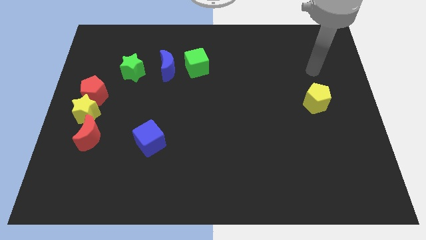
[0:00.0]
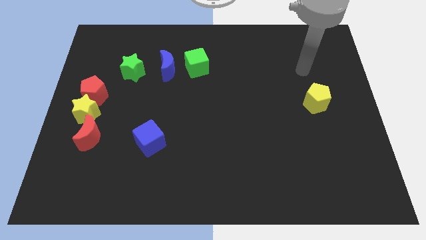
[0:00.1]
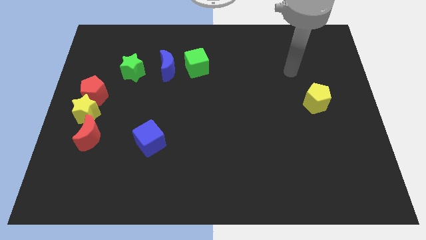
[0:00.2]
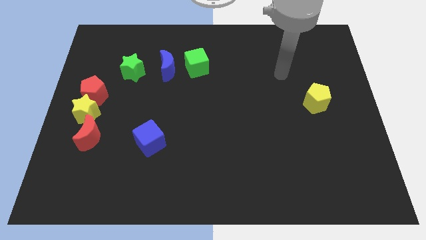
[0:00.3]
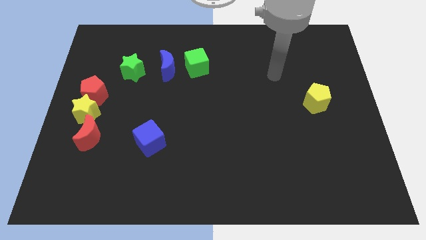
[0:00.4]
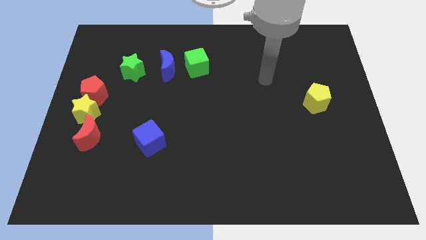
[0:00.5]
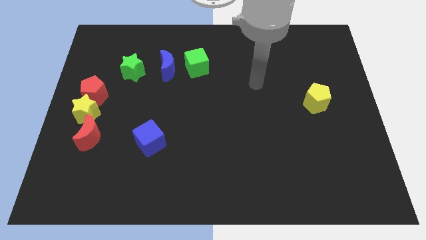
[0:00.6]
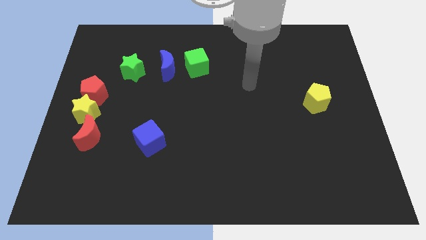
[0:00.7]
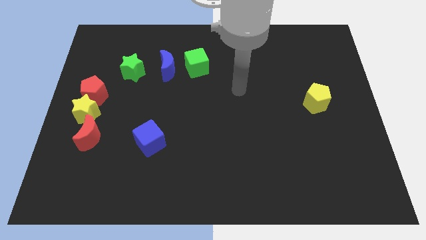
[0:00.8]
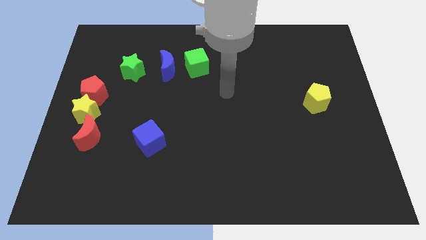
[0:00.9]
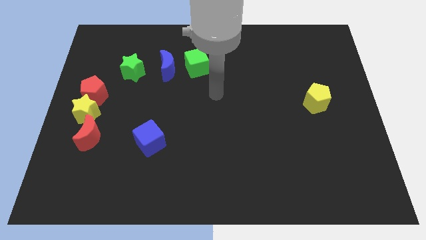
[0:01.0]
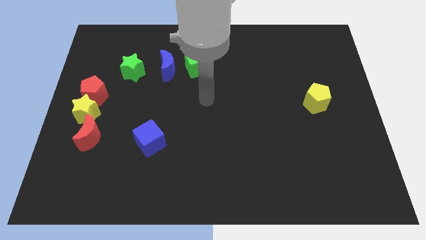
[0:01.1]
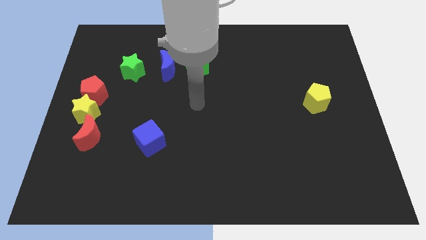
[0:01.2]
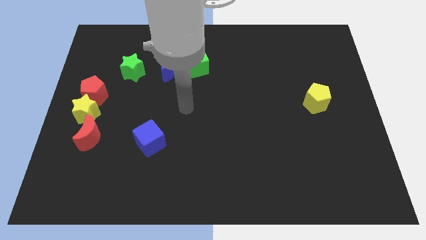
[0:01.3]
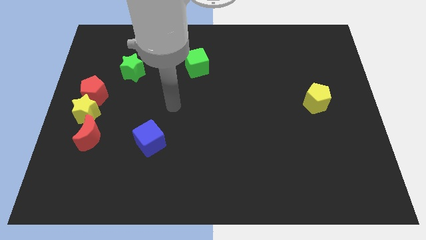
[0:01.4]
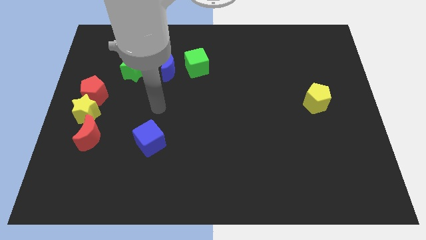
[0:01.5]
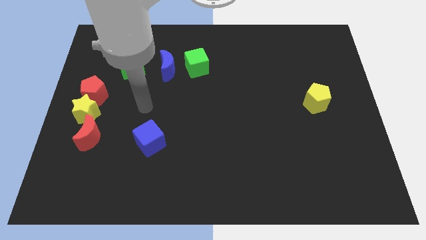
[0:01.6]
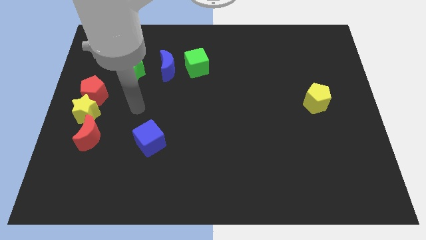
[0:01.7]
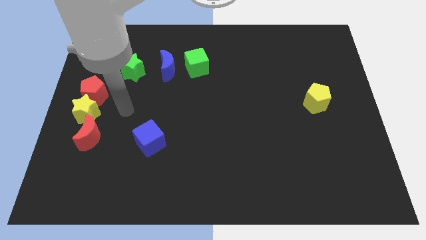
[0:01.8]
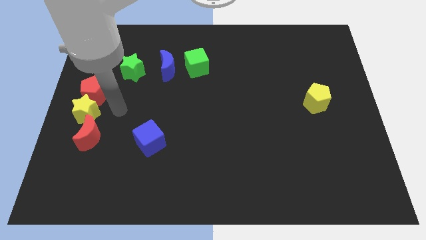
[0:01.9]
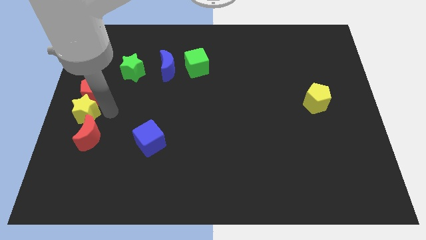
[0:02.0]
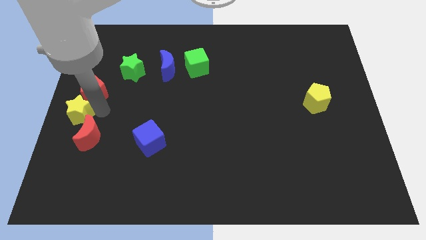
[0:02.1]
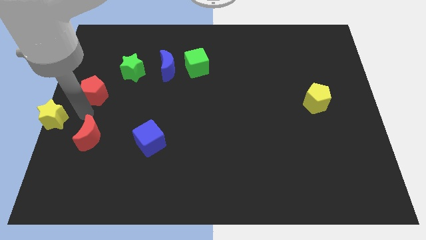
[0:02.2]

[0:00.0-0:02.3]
move the red pentagon away from the yellow star

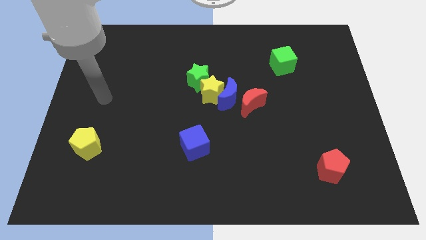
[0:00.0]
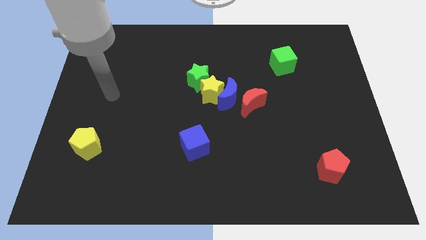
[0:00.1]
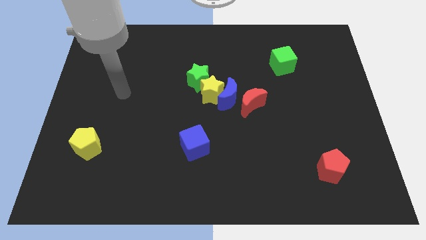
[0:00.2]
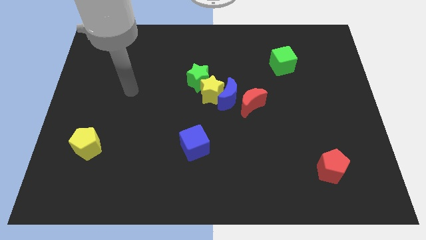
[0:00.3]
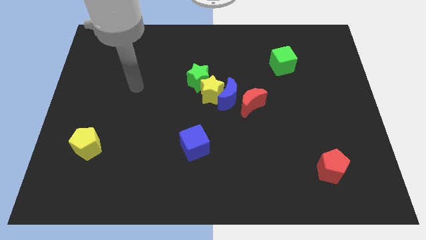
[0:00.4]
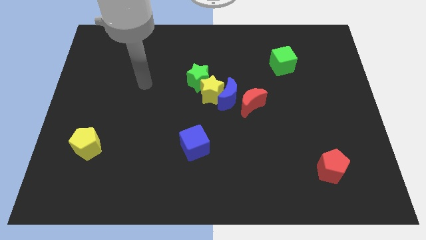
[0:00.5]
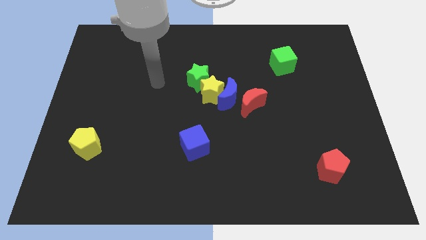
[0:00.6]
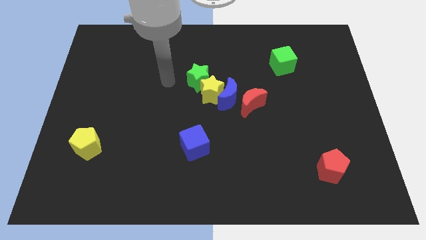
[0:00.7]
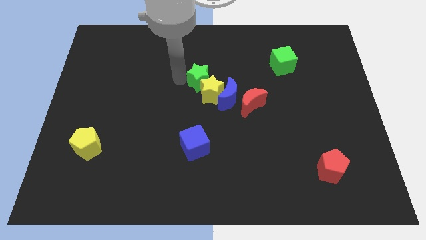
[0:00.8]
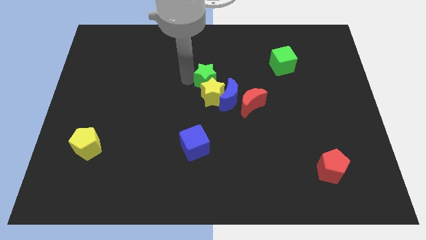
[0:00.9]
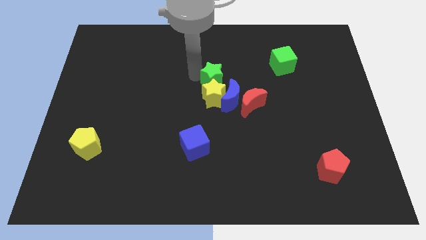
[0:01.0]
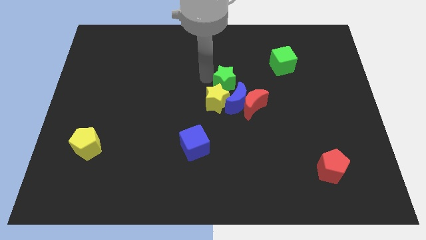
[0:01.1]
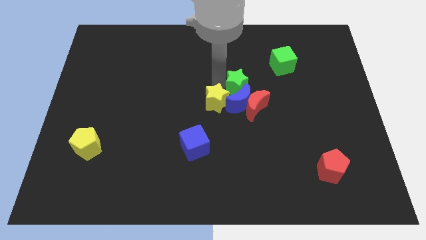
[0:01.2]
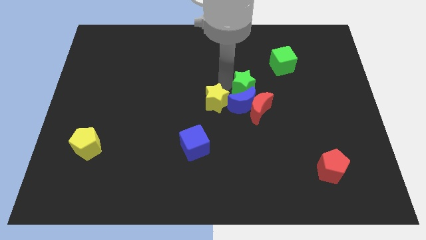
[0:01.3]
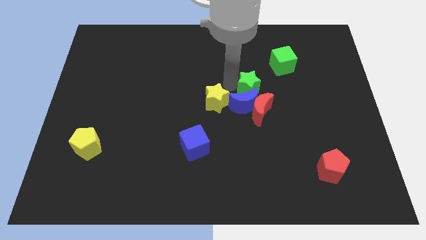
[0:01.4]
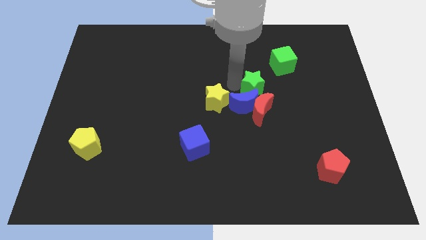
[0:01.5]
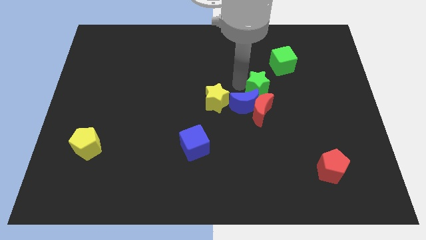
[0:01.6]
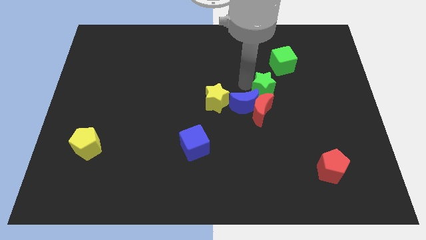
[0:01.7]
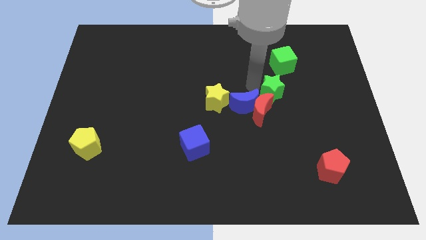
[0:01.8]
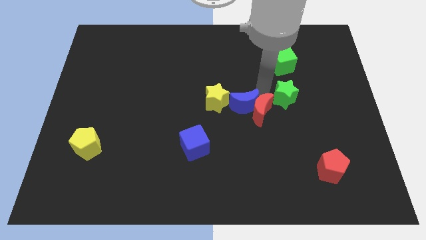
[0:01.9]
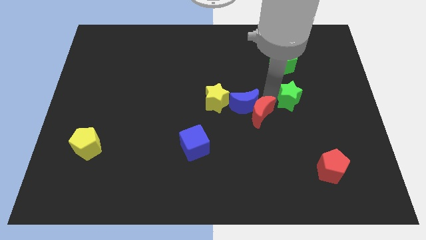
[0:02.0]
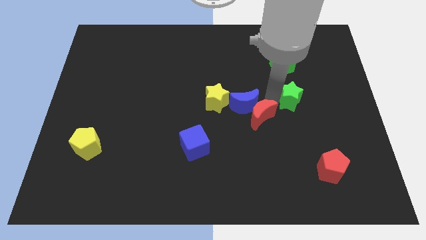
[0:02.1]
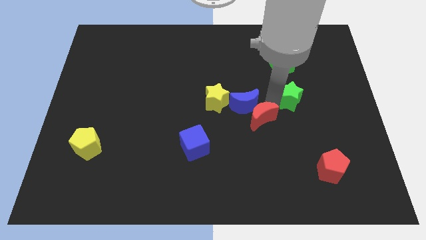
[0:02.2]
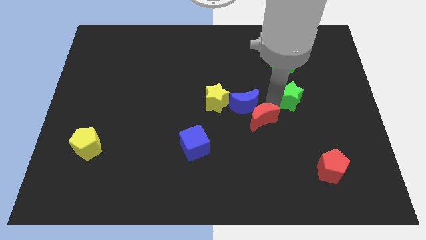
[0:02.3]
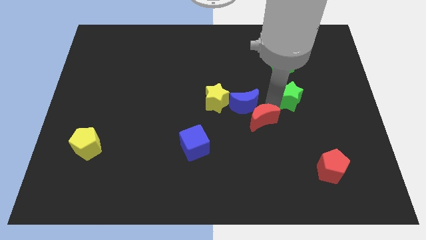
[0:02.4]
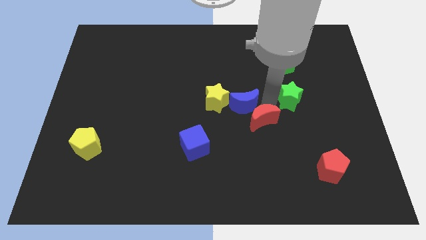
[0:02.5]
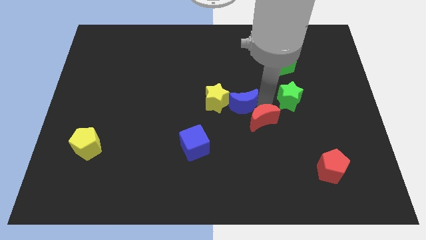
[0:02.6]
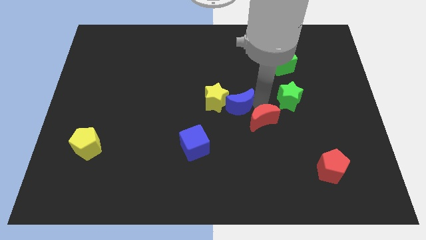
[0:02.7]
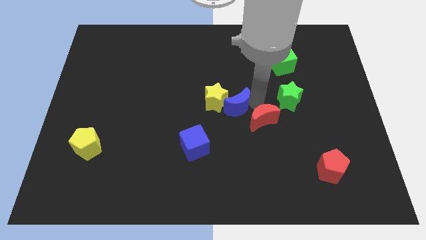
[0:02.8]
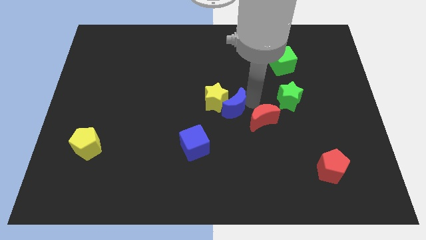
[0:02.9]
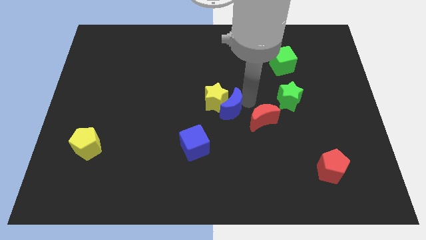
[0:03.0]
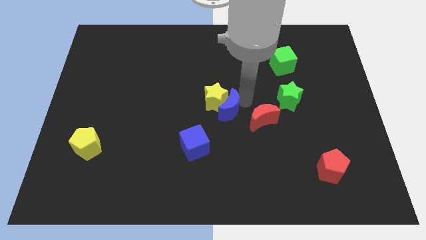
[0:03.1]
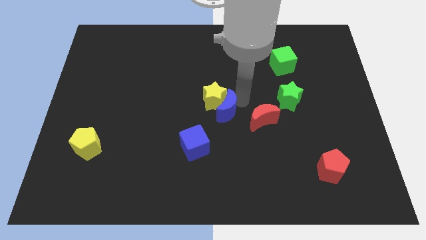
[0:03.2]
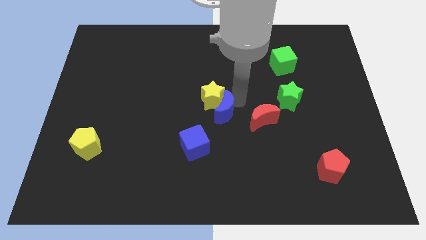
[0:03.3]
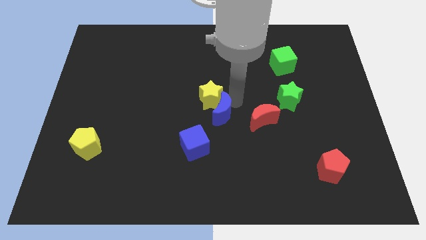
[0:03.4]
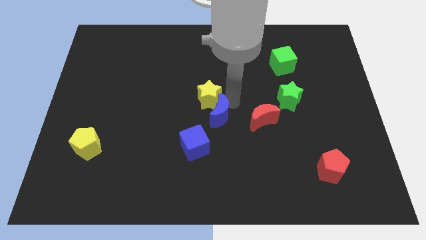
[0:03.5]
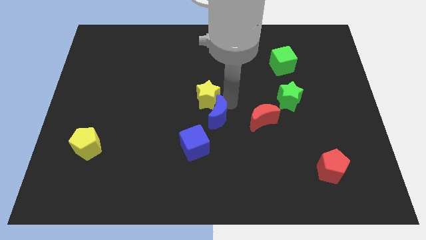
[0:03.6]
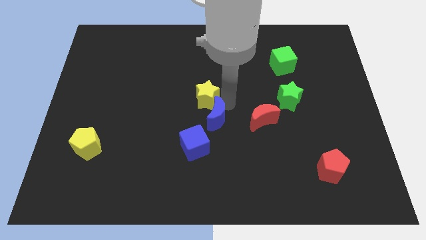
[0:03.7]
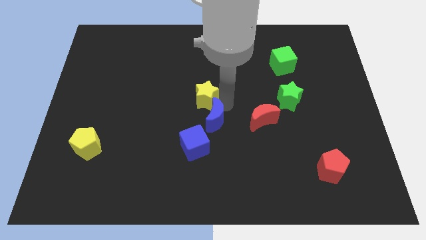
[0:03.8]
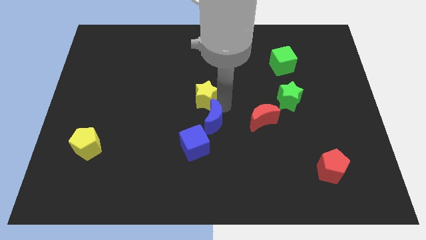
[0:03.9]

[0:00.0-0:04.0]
move the blue moon away from the yellow star, red moon, and green star

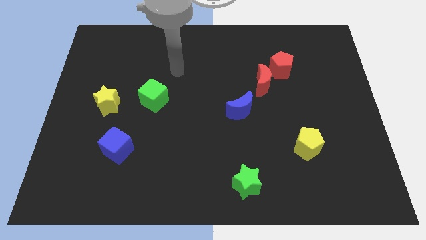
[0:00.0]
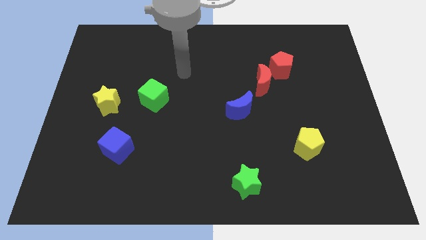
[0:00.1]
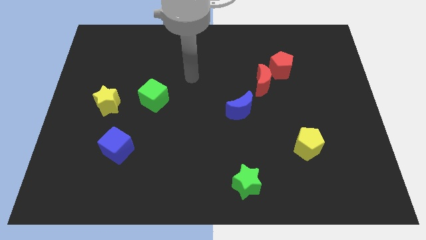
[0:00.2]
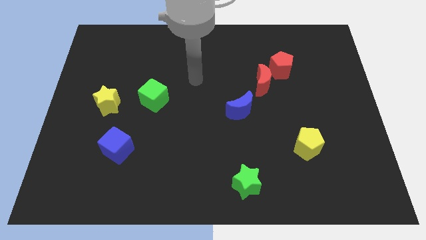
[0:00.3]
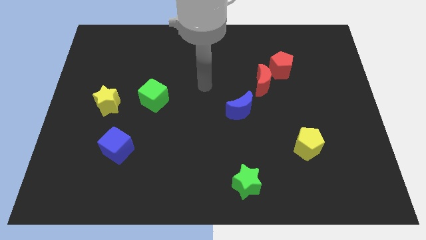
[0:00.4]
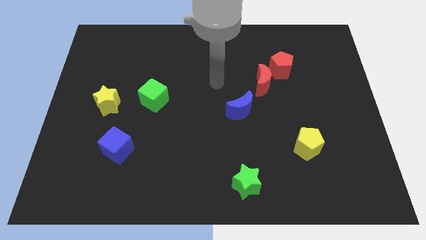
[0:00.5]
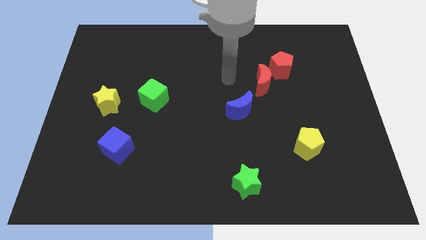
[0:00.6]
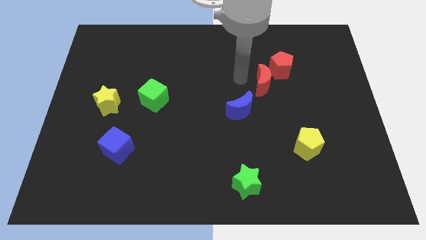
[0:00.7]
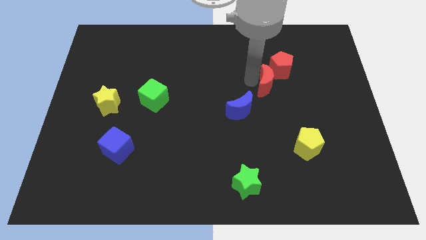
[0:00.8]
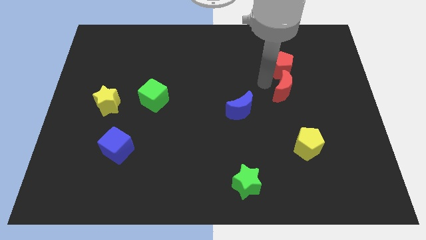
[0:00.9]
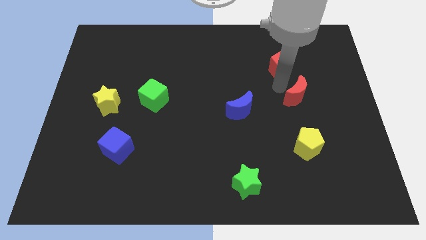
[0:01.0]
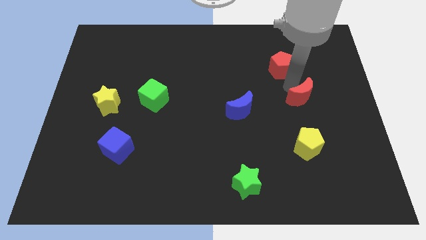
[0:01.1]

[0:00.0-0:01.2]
move the red pentagon away from the red moon

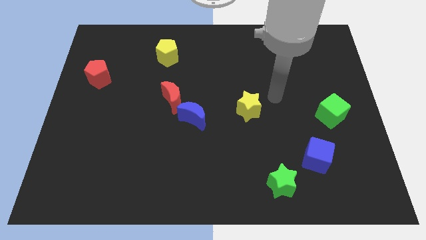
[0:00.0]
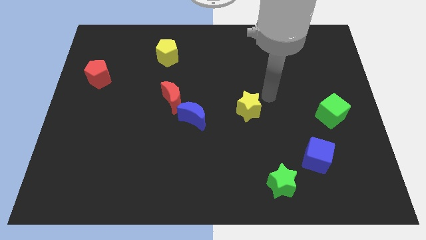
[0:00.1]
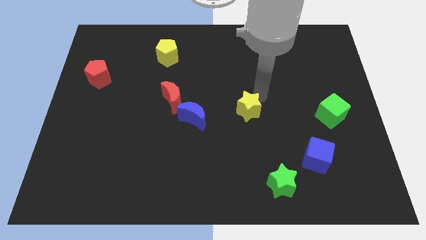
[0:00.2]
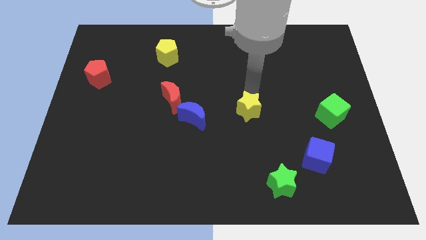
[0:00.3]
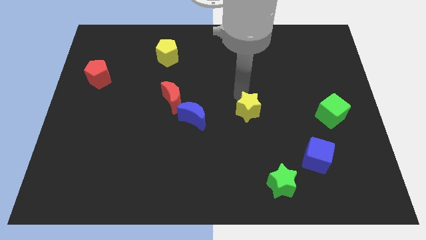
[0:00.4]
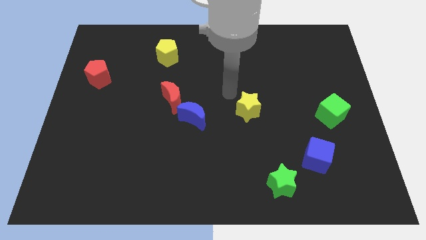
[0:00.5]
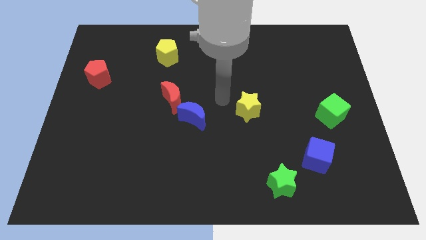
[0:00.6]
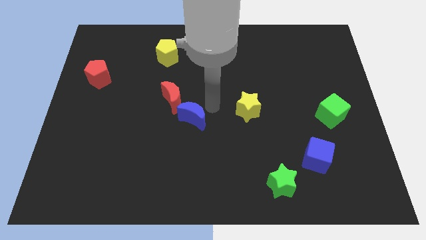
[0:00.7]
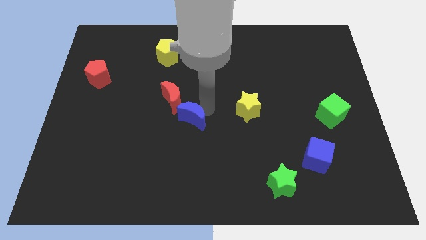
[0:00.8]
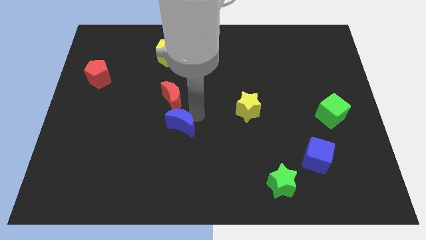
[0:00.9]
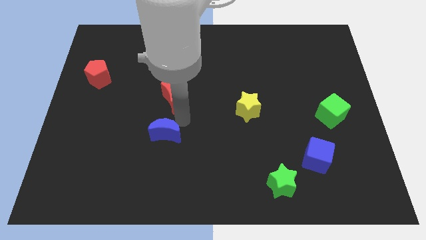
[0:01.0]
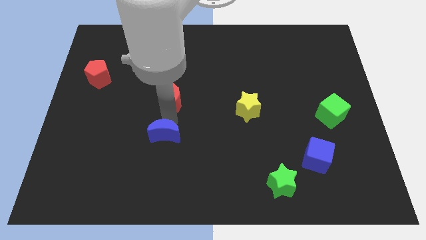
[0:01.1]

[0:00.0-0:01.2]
pull the red moon apart from the blue moon

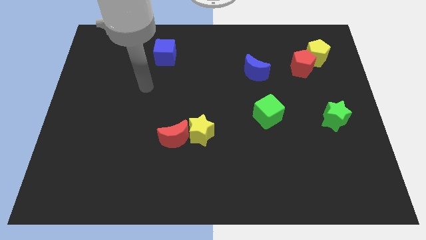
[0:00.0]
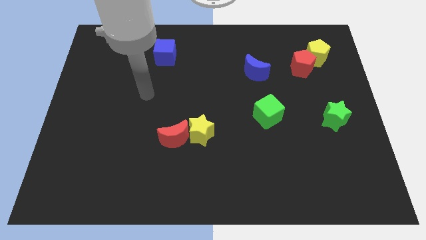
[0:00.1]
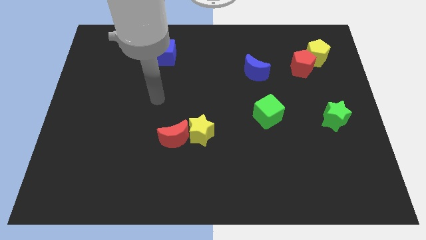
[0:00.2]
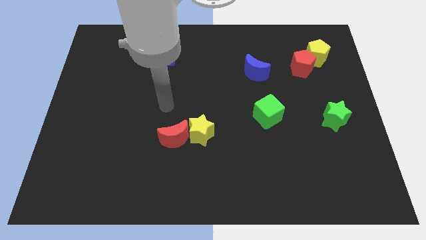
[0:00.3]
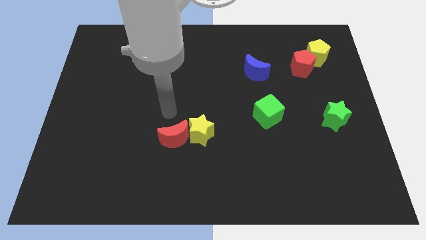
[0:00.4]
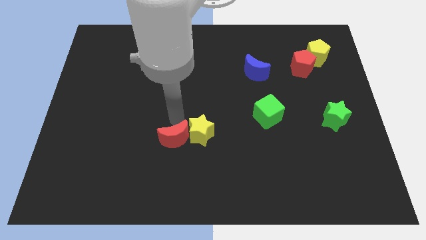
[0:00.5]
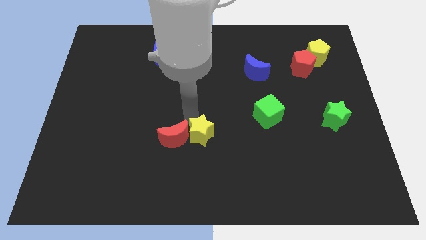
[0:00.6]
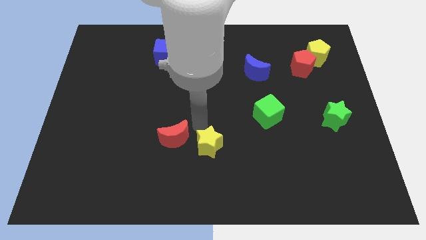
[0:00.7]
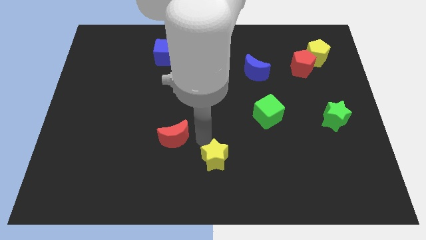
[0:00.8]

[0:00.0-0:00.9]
pull the red moon apart from the yellow star
